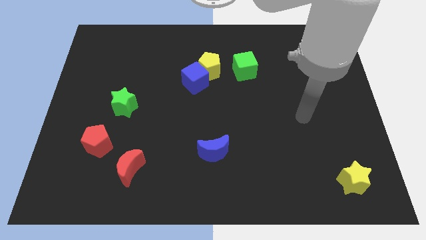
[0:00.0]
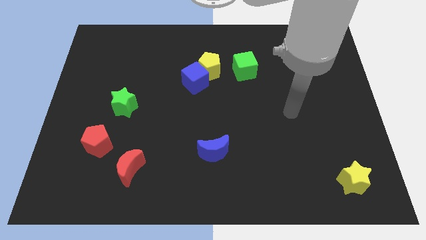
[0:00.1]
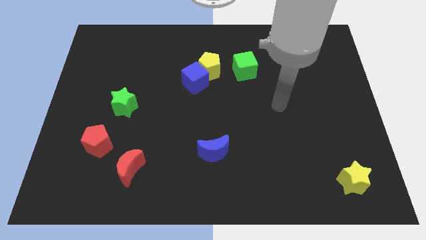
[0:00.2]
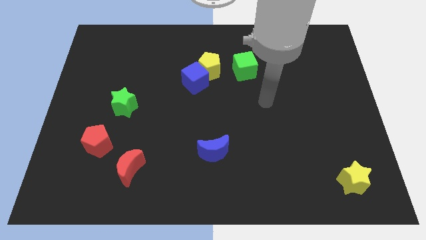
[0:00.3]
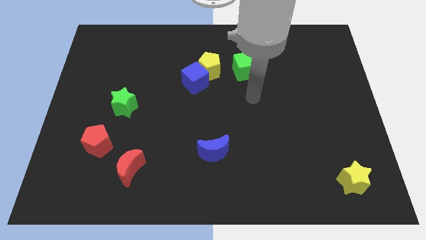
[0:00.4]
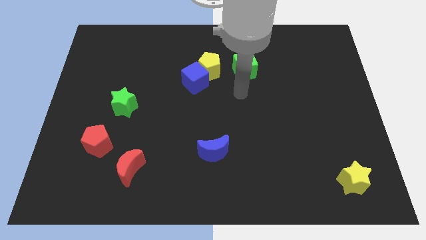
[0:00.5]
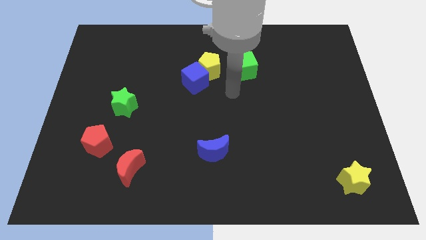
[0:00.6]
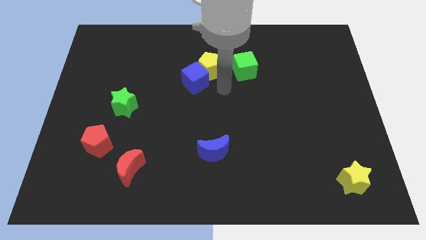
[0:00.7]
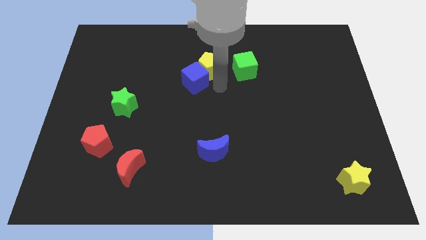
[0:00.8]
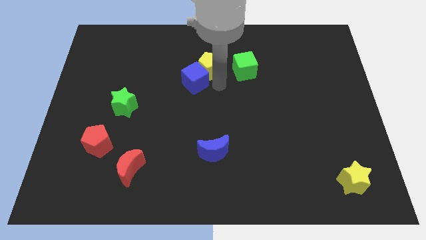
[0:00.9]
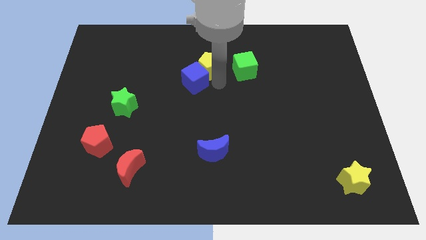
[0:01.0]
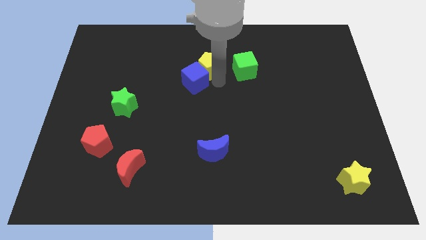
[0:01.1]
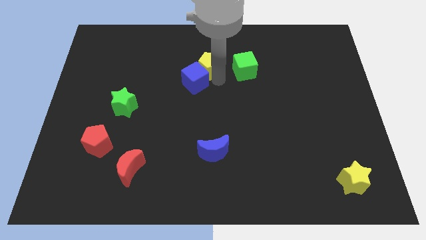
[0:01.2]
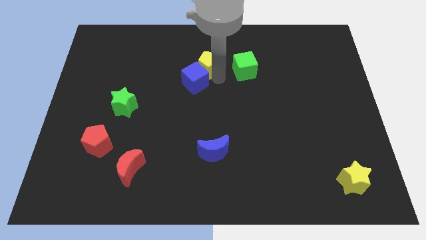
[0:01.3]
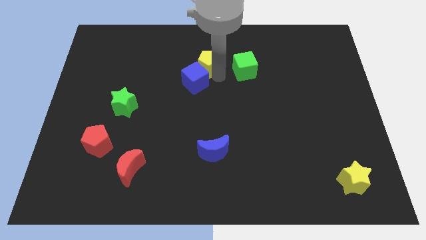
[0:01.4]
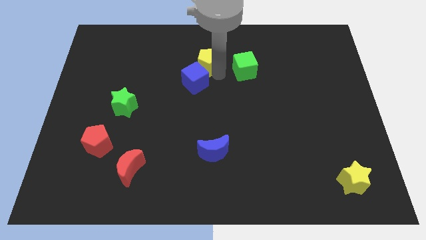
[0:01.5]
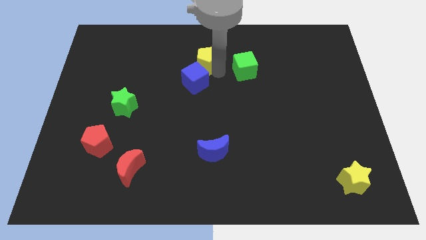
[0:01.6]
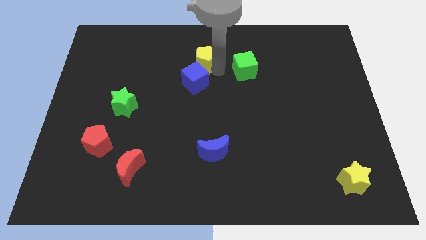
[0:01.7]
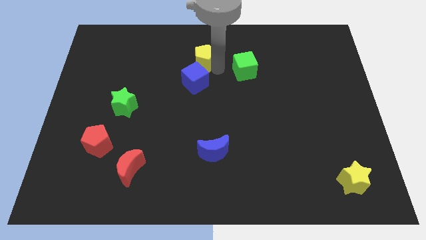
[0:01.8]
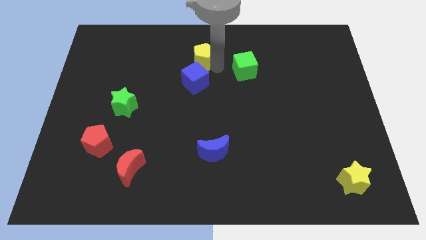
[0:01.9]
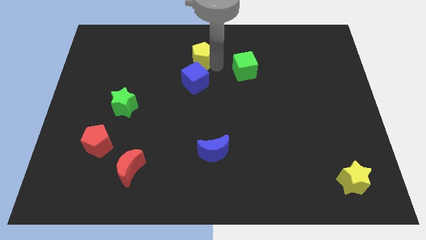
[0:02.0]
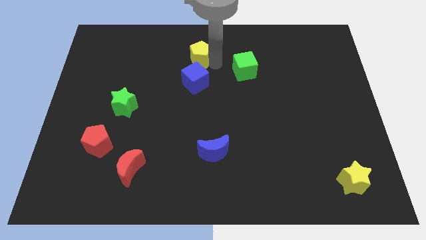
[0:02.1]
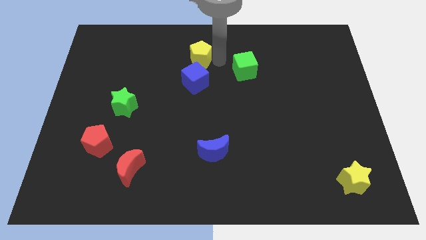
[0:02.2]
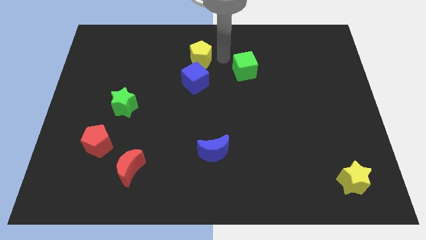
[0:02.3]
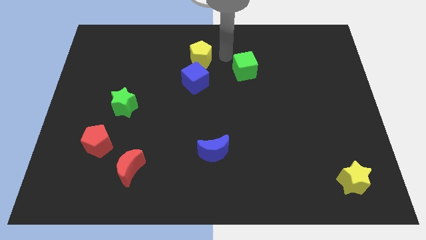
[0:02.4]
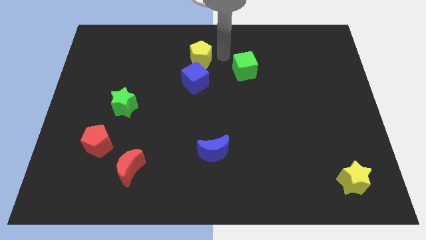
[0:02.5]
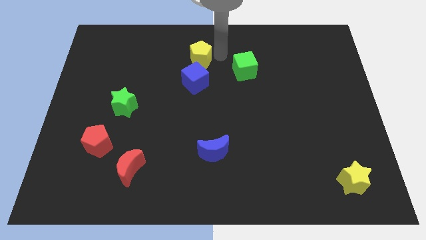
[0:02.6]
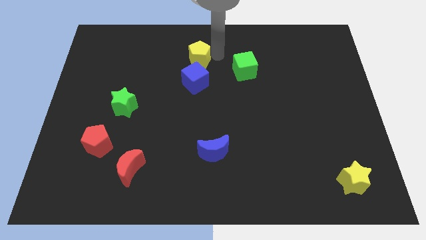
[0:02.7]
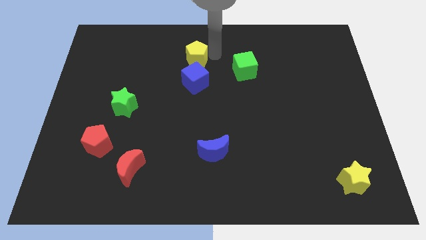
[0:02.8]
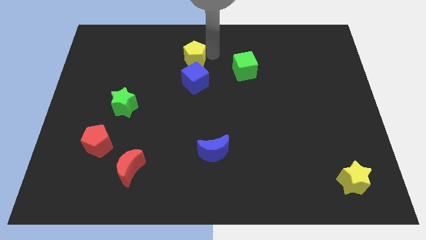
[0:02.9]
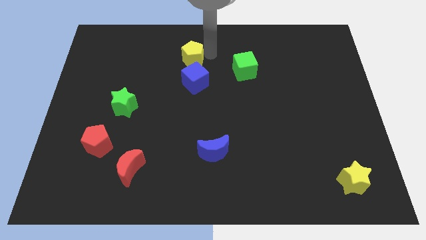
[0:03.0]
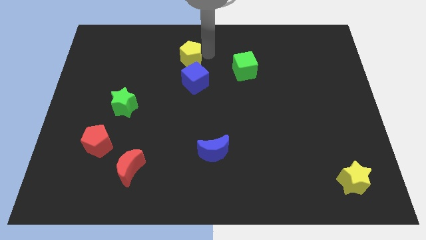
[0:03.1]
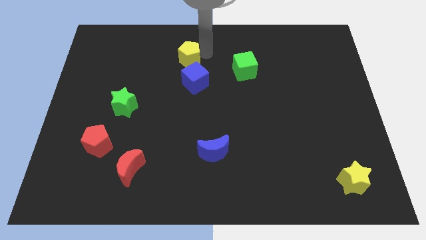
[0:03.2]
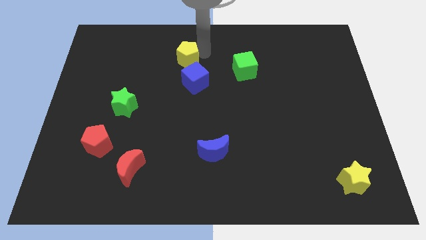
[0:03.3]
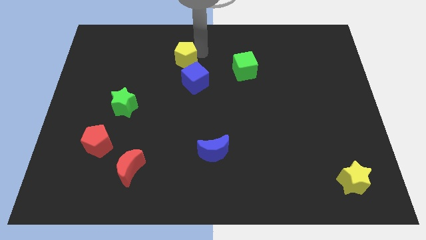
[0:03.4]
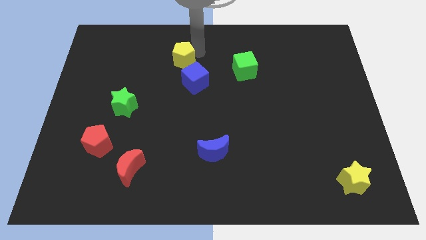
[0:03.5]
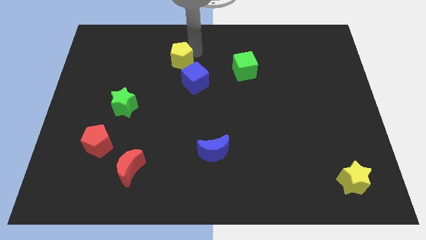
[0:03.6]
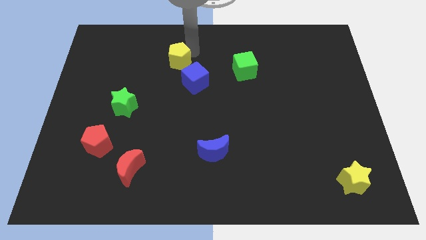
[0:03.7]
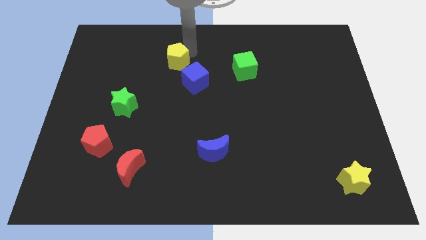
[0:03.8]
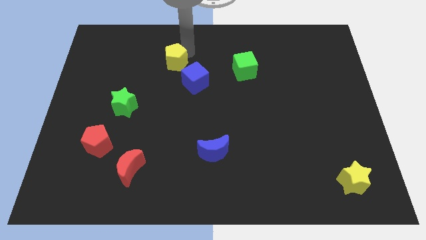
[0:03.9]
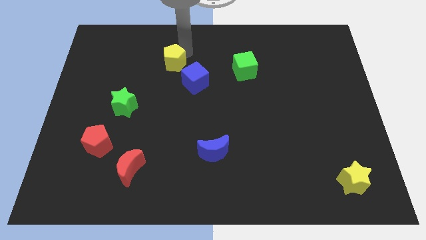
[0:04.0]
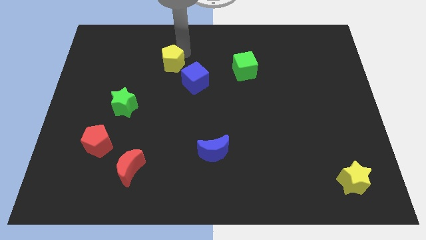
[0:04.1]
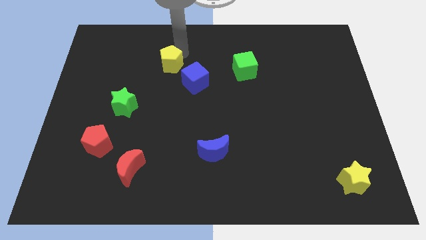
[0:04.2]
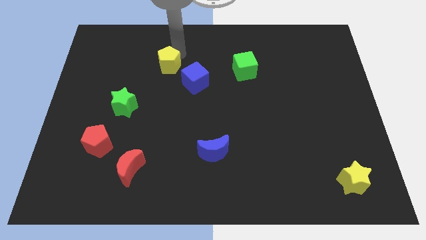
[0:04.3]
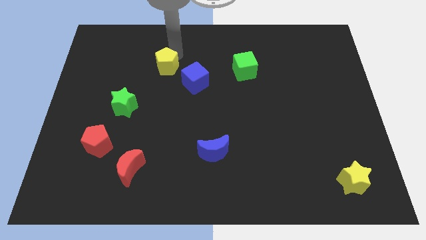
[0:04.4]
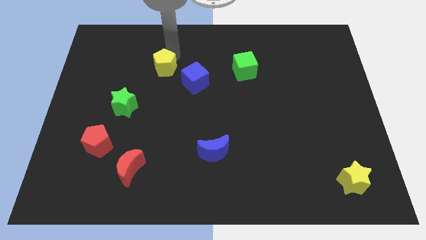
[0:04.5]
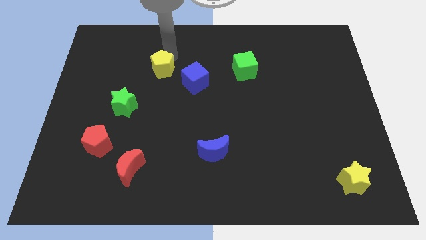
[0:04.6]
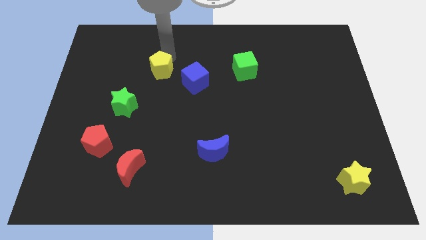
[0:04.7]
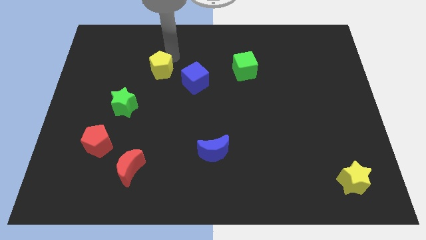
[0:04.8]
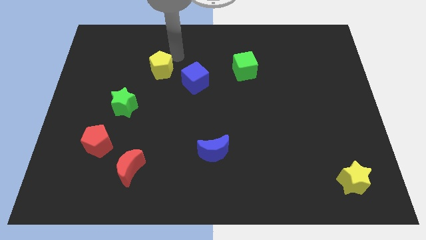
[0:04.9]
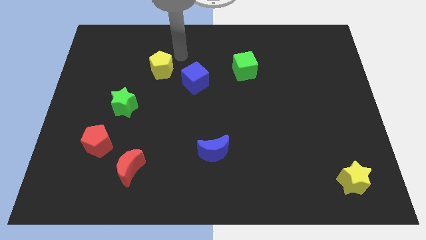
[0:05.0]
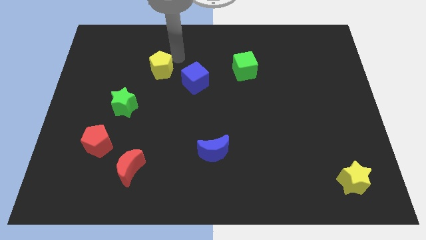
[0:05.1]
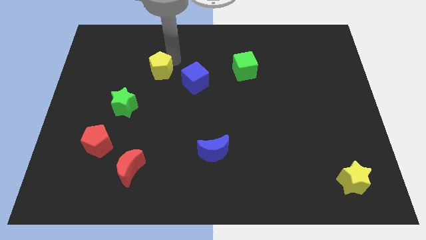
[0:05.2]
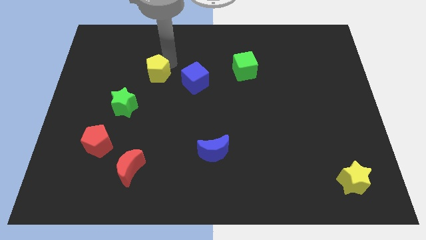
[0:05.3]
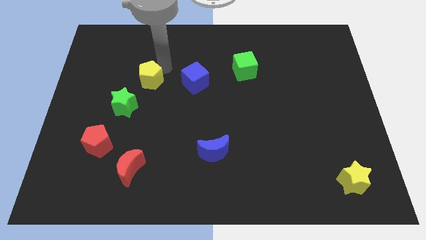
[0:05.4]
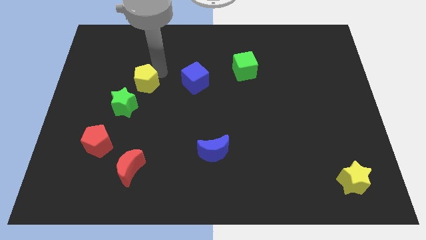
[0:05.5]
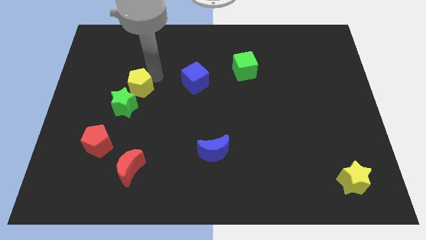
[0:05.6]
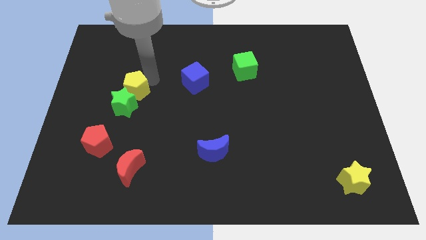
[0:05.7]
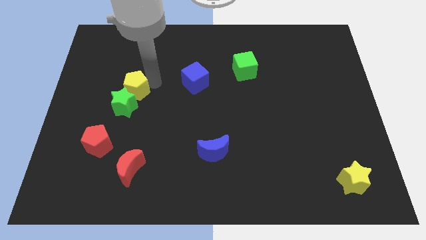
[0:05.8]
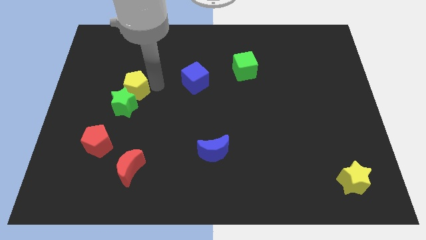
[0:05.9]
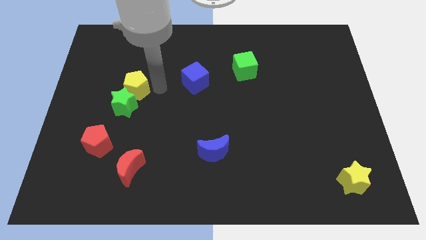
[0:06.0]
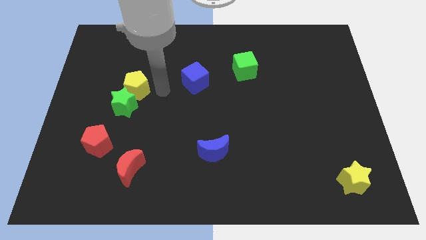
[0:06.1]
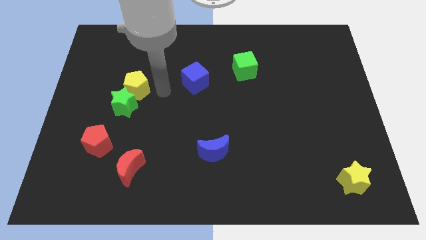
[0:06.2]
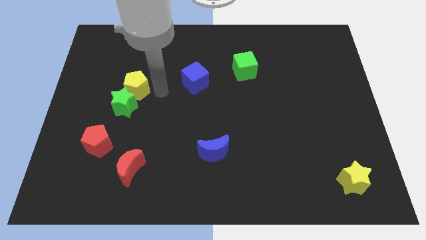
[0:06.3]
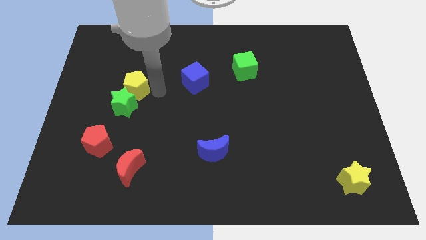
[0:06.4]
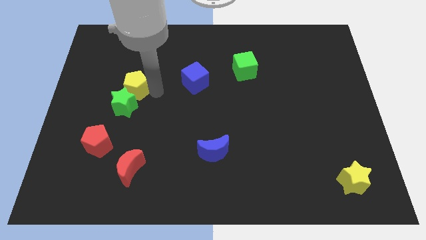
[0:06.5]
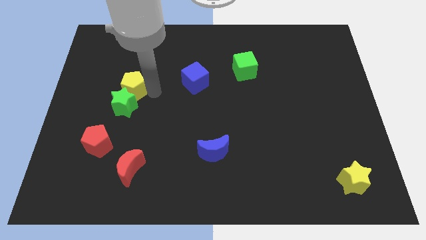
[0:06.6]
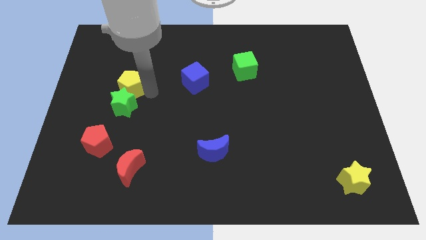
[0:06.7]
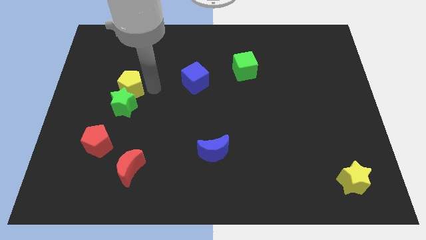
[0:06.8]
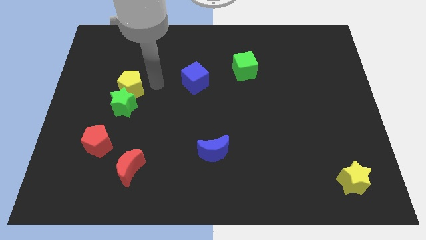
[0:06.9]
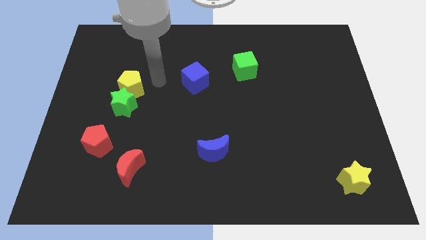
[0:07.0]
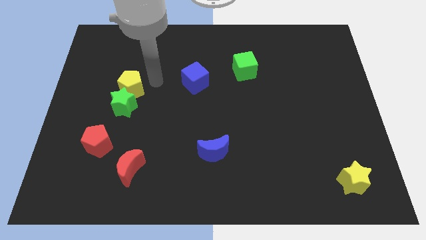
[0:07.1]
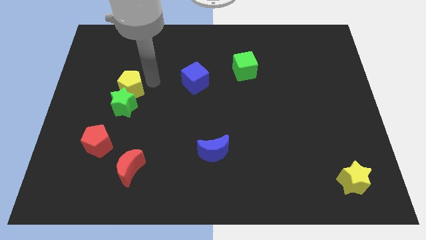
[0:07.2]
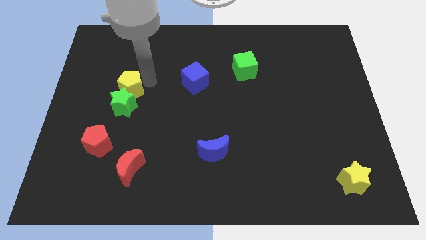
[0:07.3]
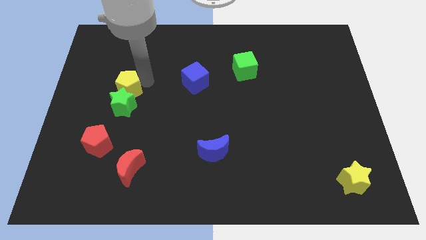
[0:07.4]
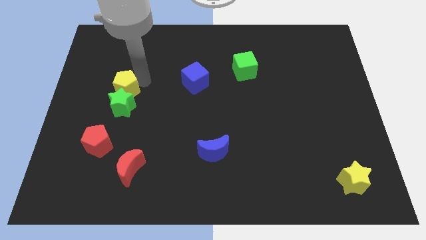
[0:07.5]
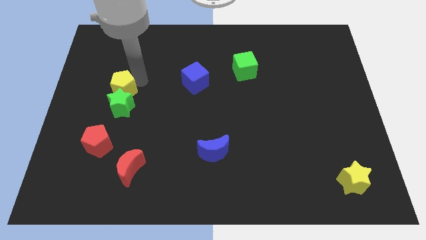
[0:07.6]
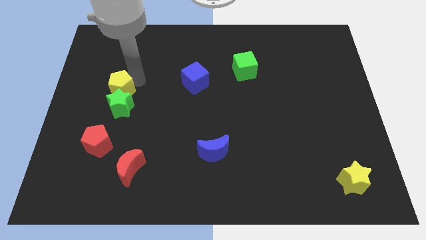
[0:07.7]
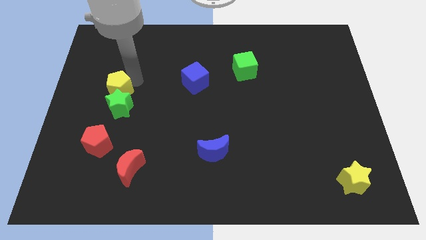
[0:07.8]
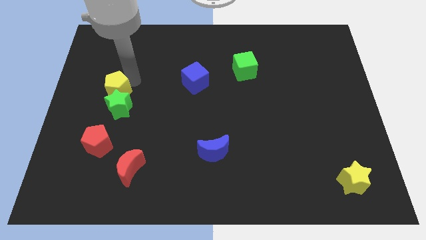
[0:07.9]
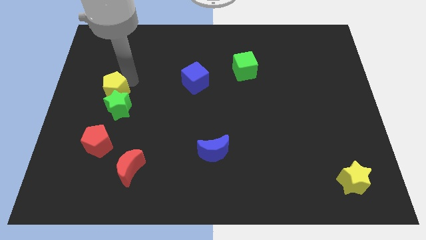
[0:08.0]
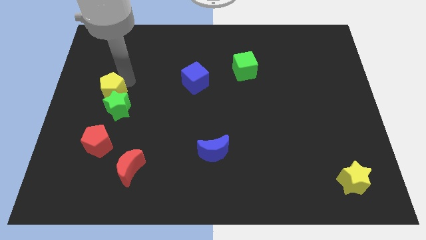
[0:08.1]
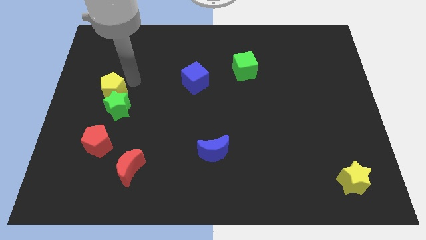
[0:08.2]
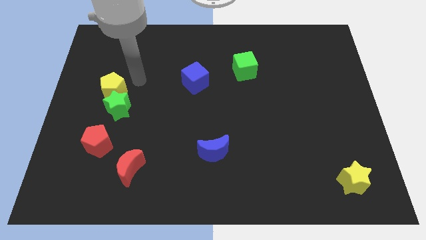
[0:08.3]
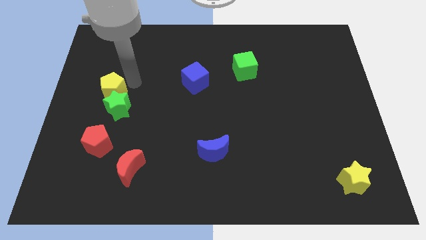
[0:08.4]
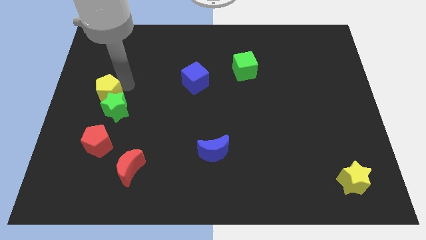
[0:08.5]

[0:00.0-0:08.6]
put the yellow pentagon to the left side

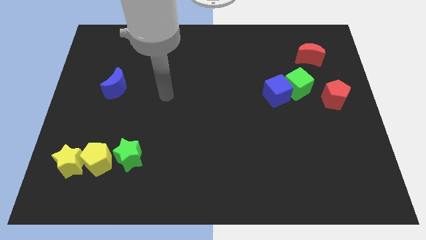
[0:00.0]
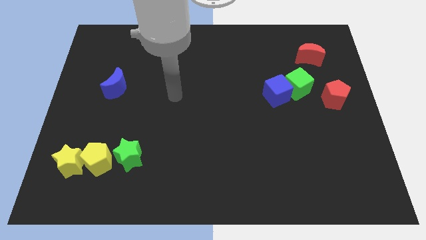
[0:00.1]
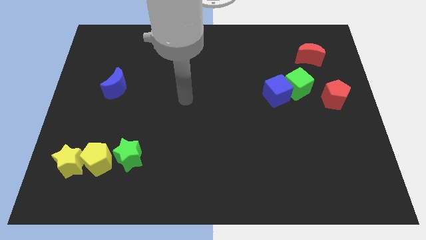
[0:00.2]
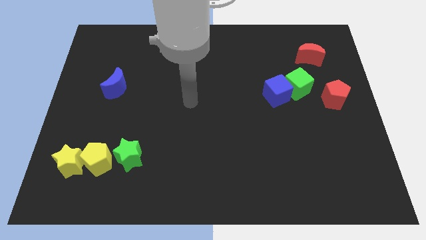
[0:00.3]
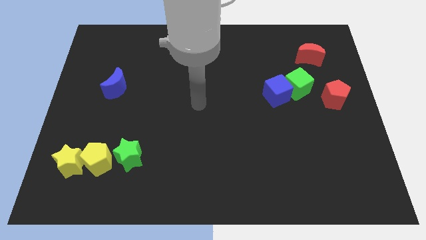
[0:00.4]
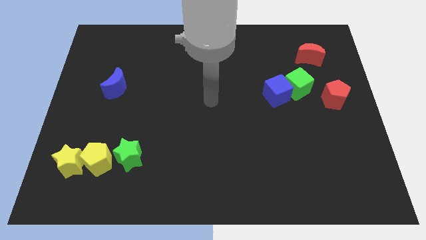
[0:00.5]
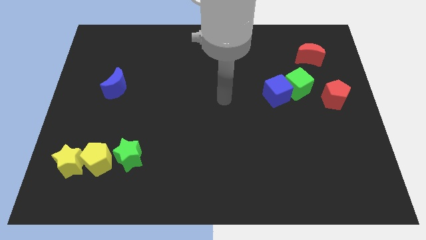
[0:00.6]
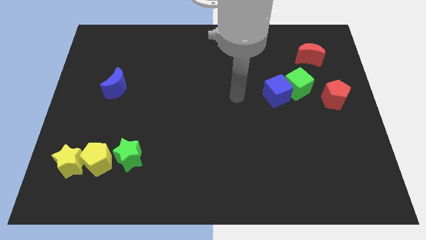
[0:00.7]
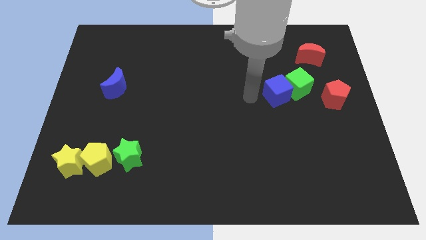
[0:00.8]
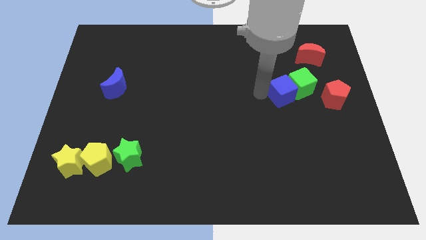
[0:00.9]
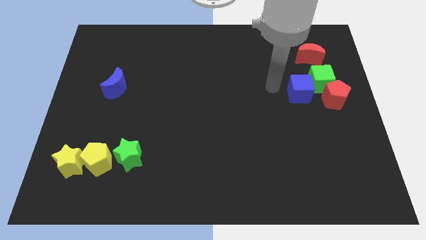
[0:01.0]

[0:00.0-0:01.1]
move the green cube to the center right
